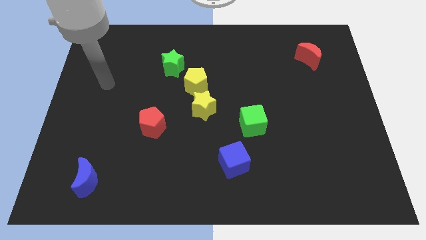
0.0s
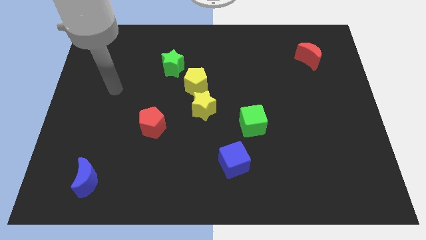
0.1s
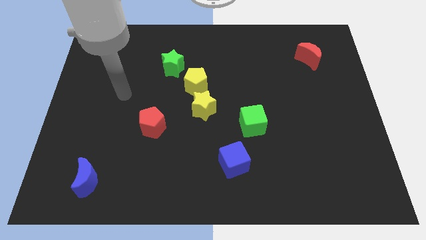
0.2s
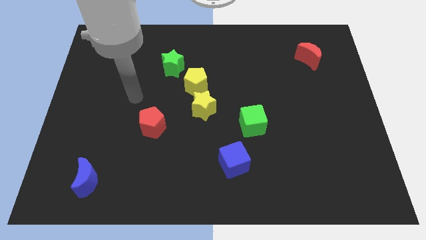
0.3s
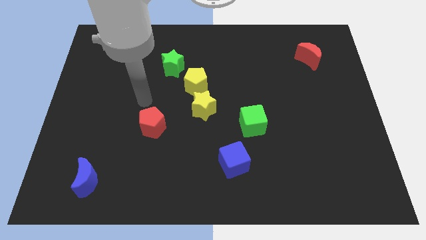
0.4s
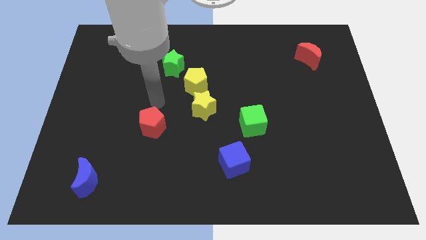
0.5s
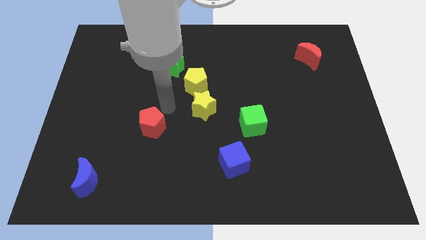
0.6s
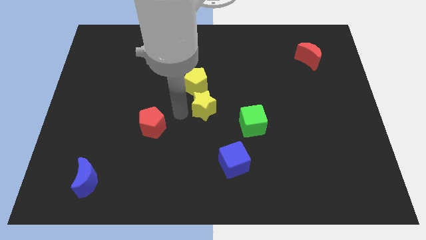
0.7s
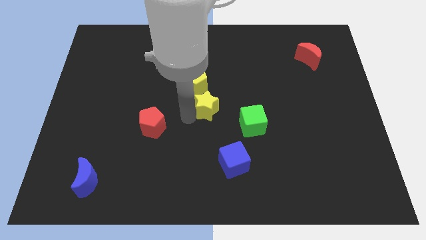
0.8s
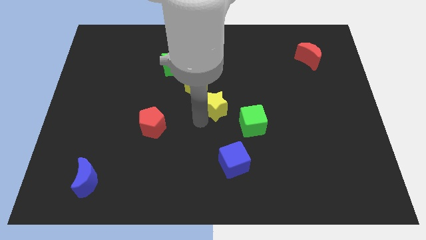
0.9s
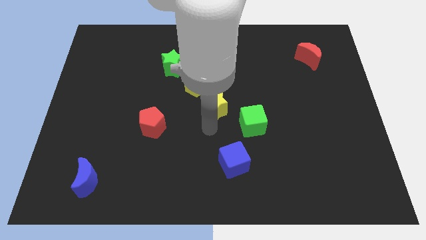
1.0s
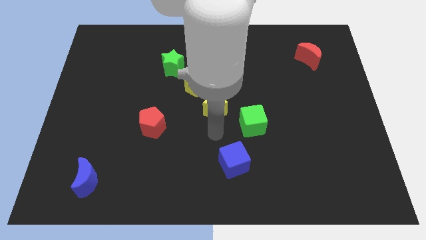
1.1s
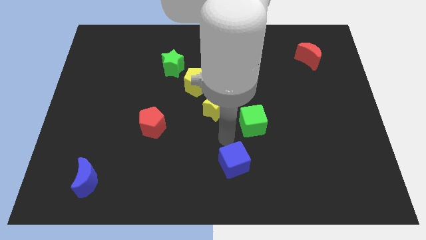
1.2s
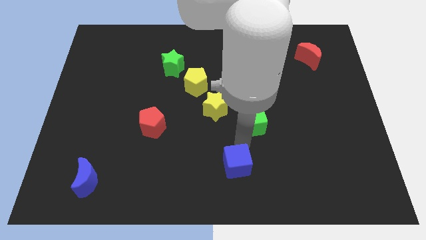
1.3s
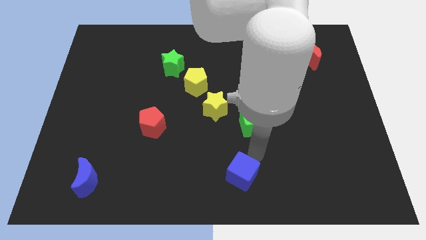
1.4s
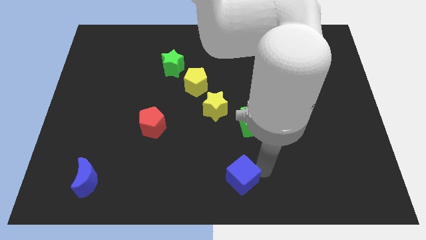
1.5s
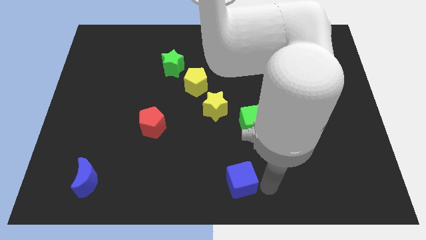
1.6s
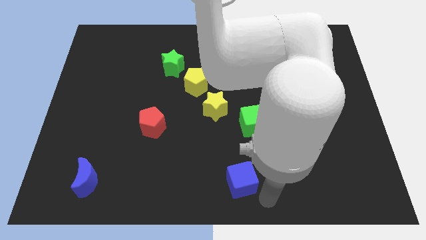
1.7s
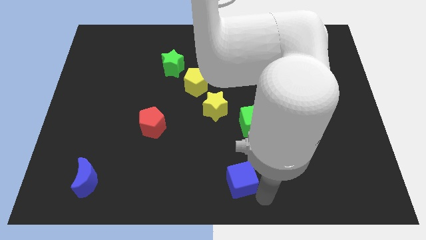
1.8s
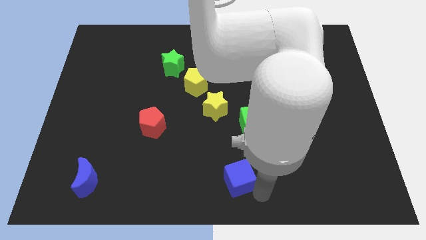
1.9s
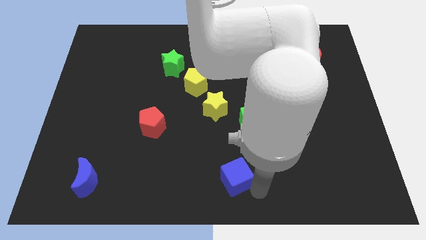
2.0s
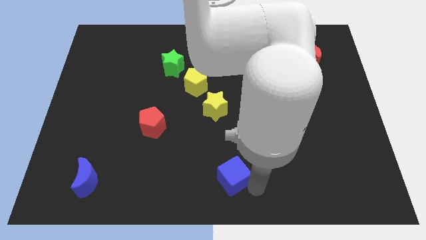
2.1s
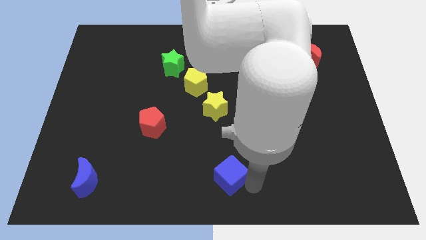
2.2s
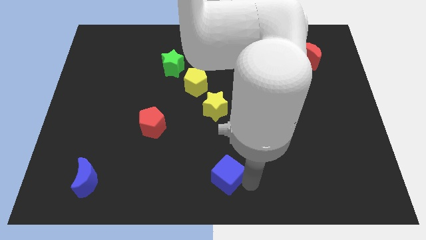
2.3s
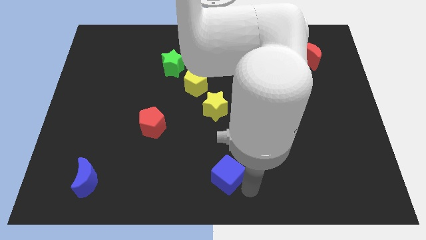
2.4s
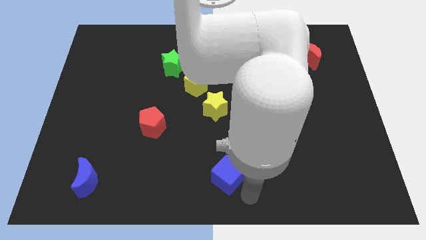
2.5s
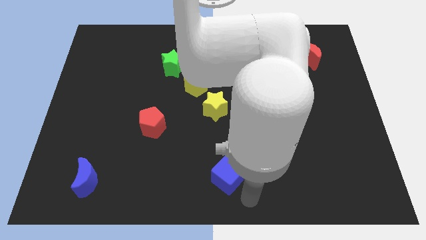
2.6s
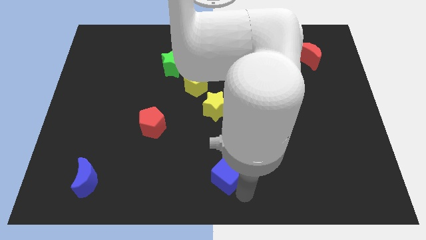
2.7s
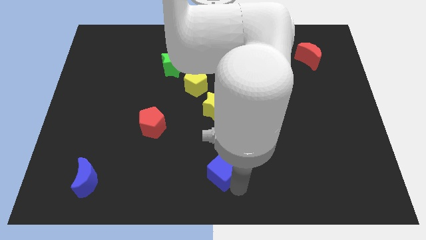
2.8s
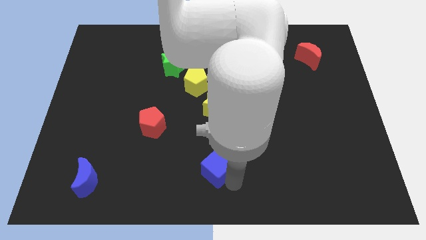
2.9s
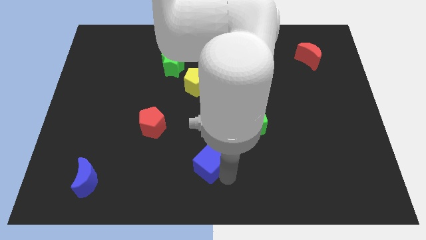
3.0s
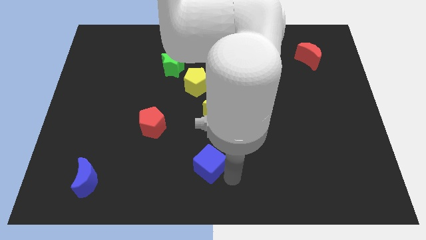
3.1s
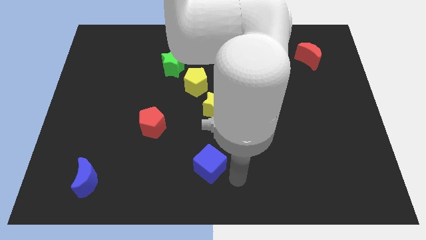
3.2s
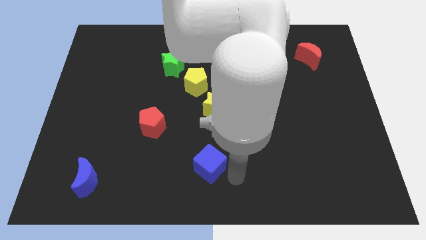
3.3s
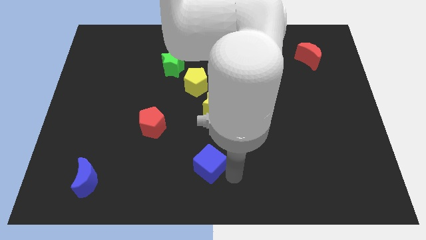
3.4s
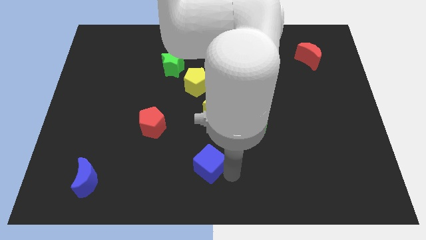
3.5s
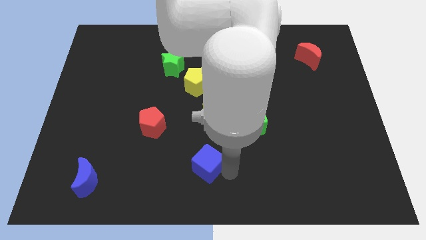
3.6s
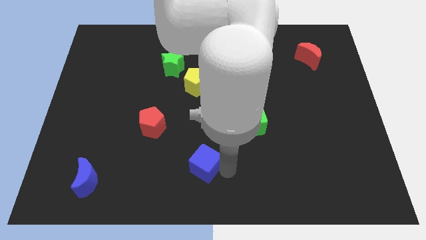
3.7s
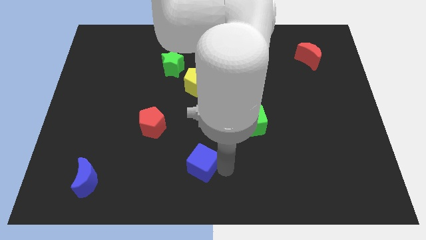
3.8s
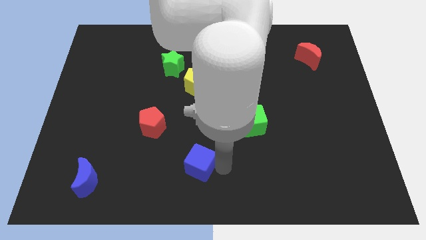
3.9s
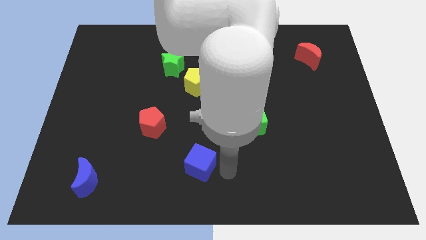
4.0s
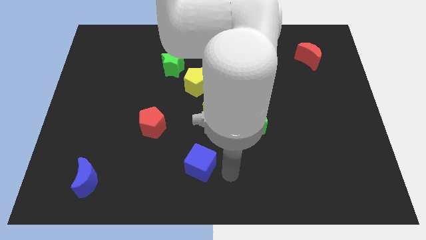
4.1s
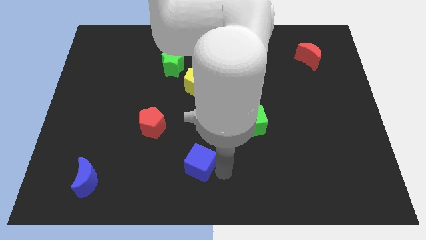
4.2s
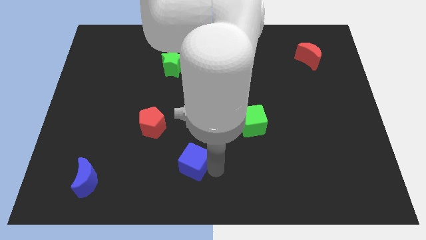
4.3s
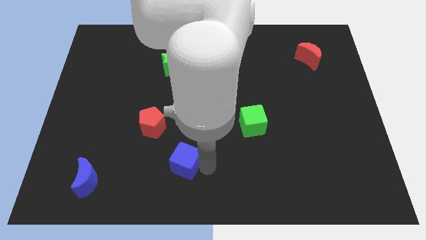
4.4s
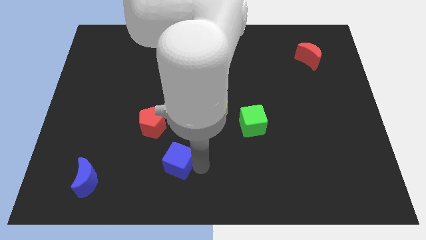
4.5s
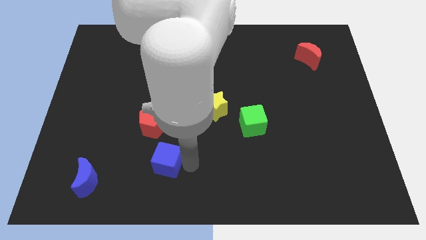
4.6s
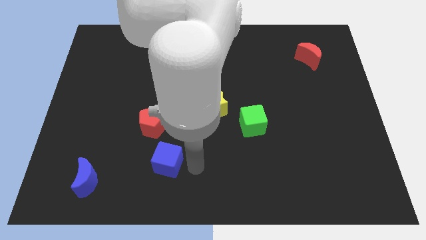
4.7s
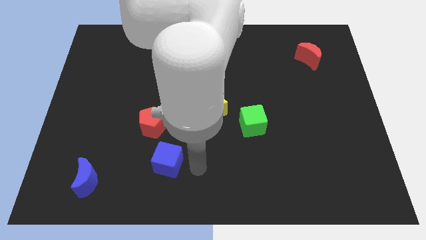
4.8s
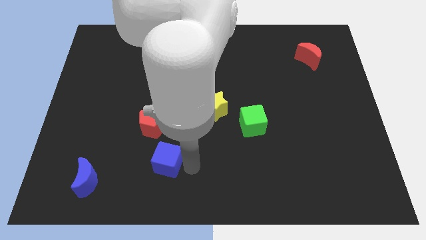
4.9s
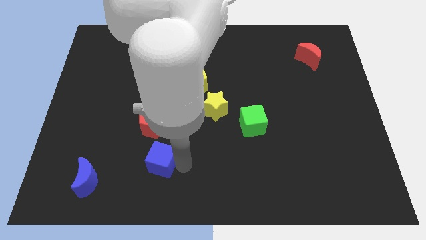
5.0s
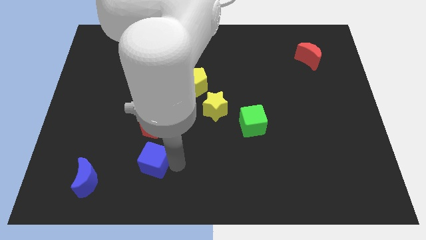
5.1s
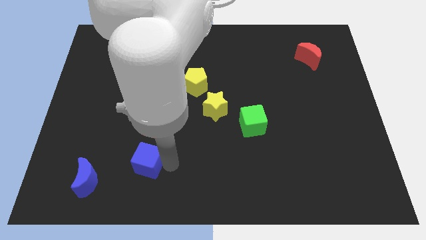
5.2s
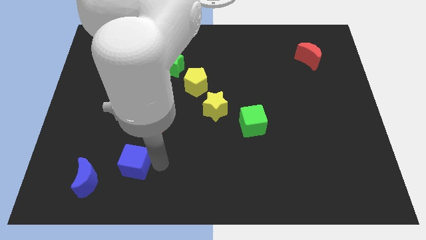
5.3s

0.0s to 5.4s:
move the blue cube left

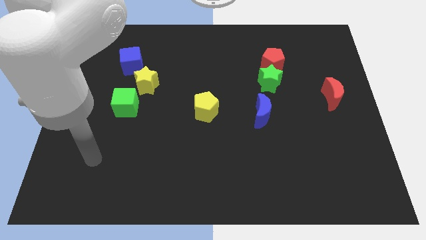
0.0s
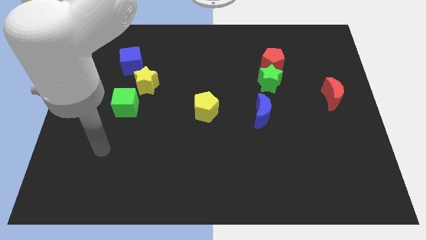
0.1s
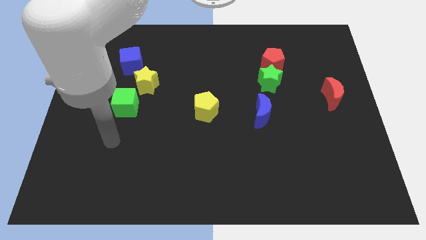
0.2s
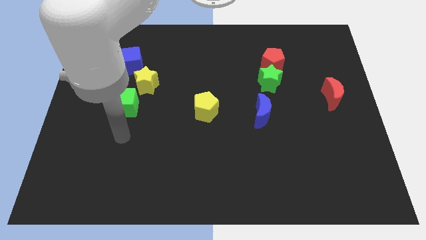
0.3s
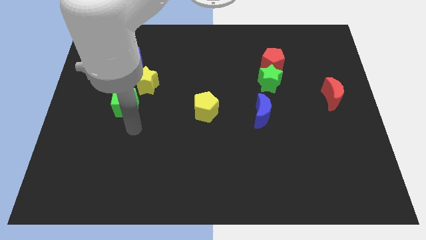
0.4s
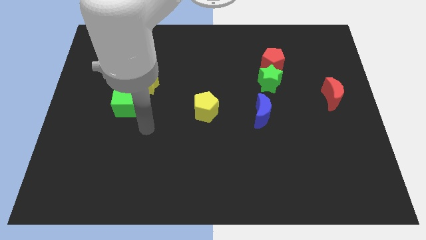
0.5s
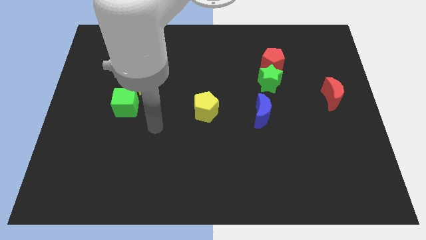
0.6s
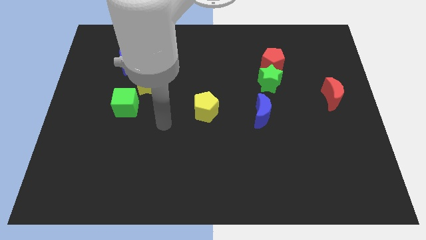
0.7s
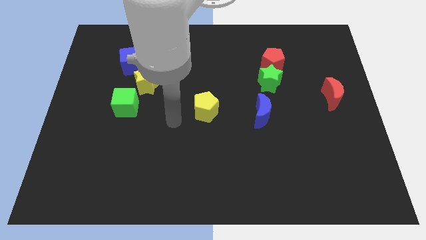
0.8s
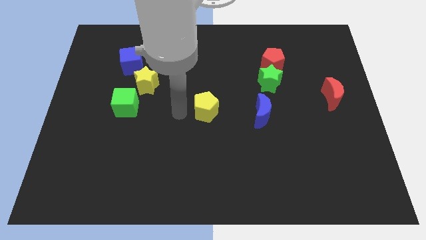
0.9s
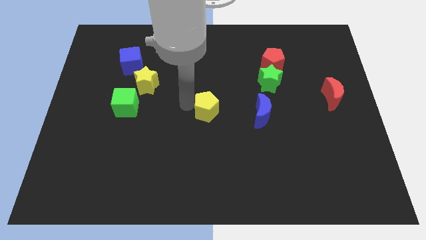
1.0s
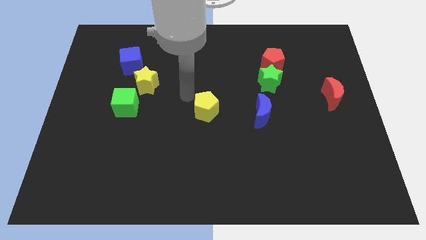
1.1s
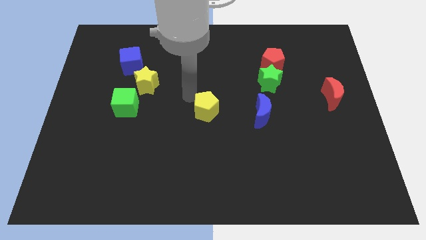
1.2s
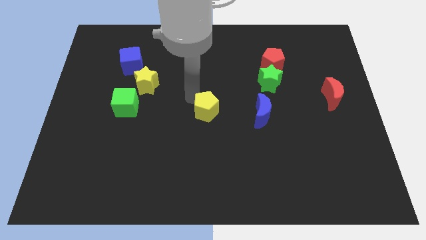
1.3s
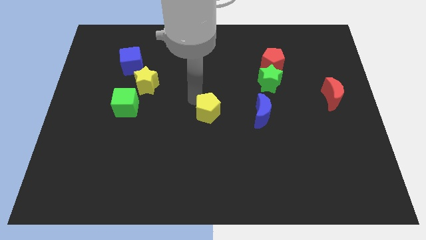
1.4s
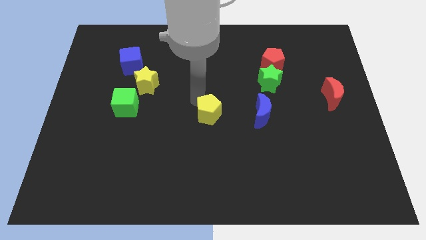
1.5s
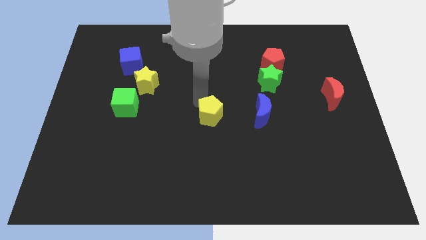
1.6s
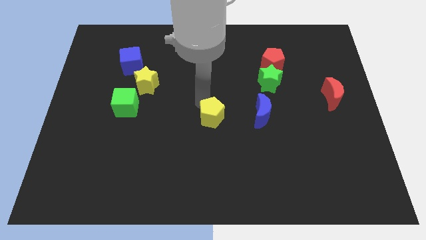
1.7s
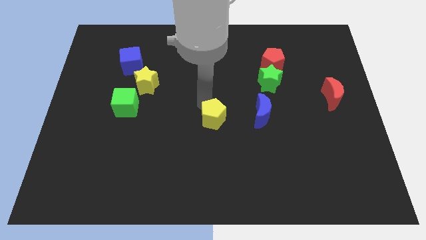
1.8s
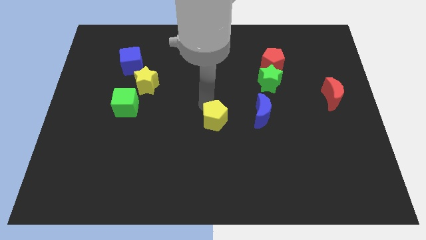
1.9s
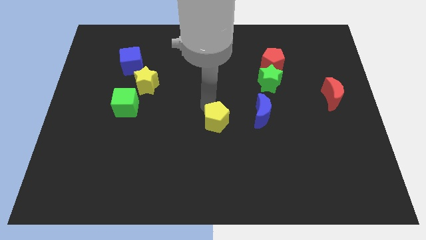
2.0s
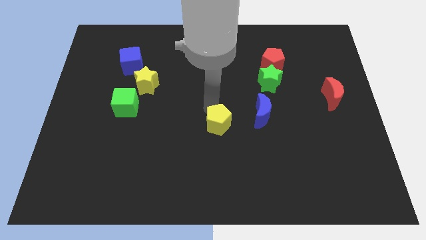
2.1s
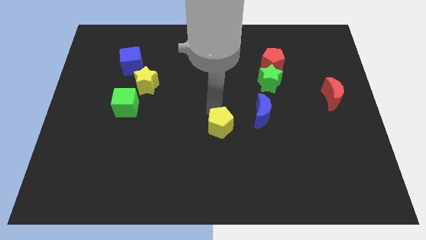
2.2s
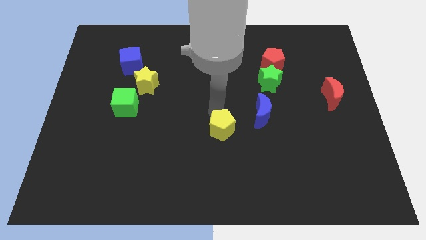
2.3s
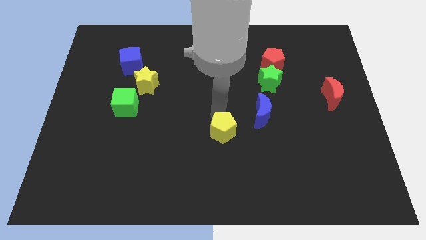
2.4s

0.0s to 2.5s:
push the yellow pentagon downwards and to the right a little bit

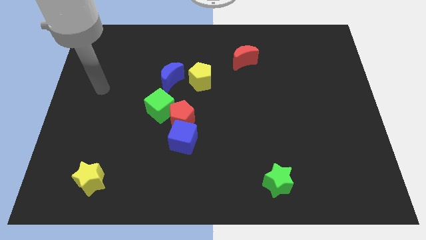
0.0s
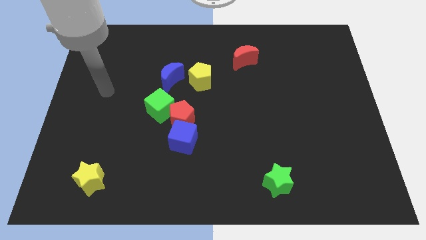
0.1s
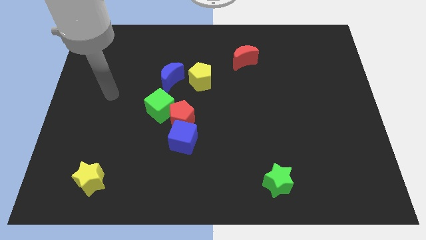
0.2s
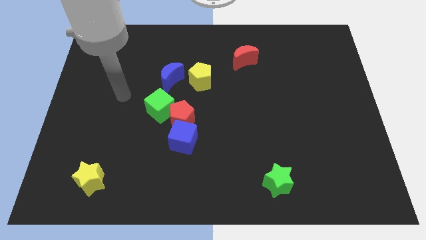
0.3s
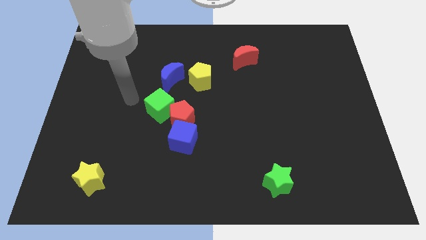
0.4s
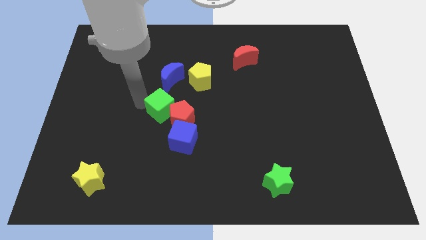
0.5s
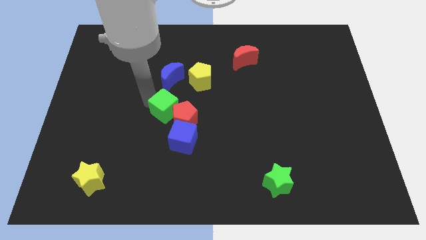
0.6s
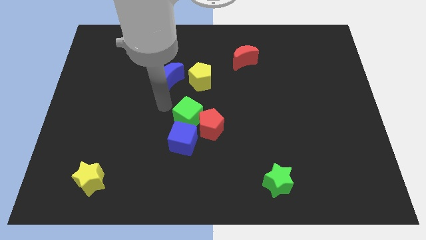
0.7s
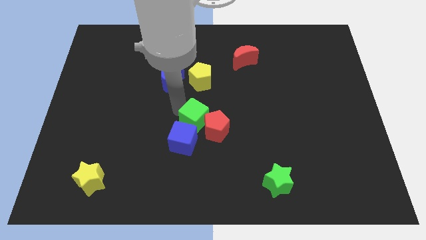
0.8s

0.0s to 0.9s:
slightly push the red pentagon downwards and then to the right
